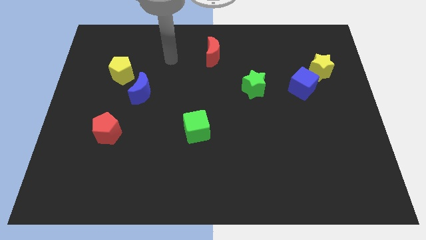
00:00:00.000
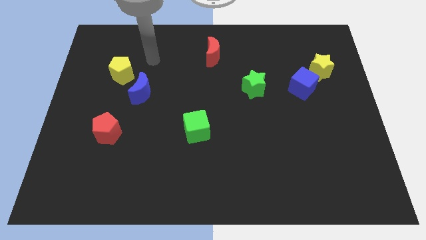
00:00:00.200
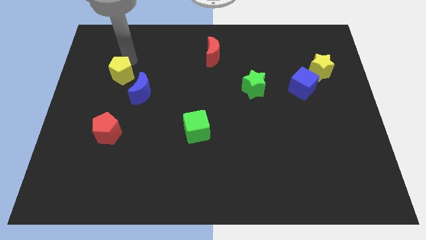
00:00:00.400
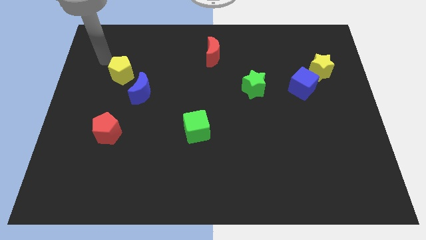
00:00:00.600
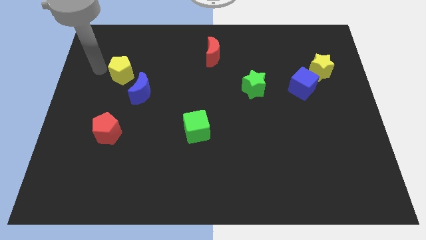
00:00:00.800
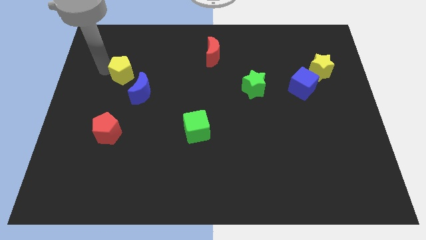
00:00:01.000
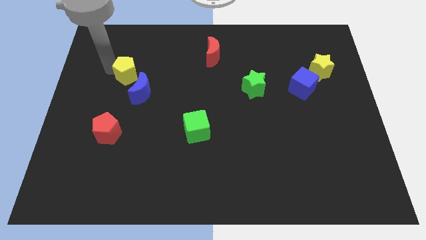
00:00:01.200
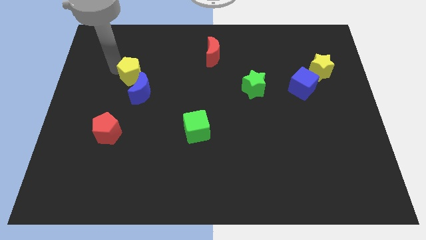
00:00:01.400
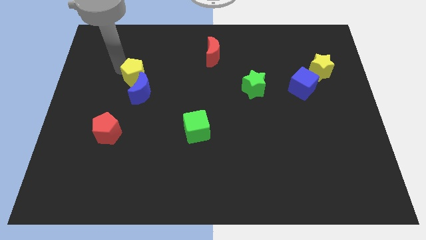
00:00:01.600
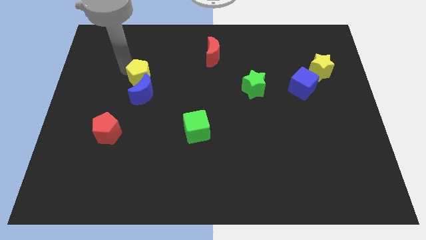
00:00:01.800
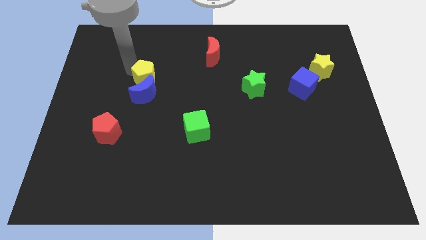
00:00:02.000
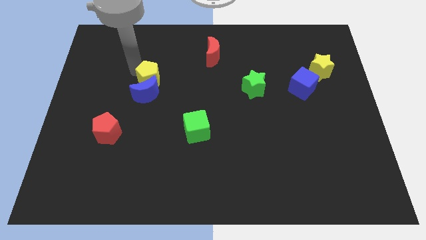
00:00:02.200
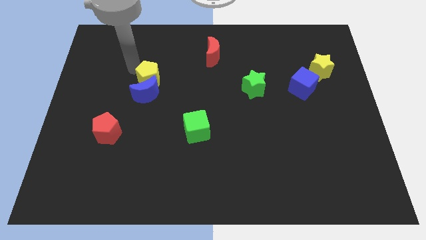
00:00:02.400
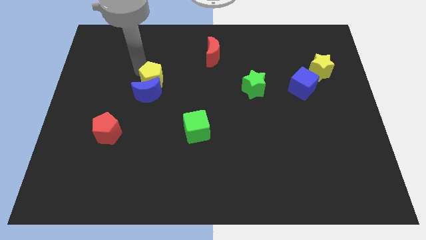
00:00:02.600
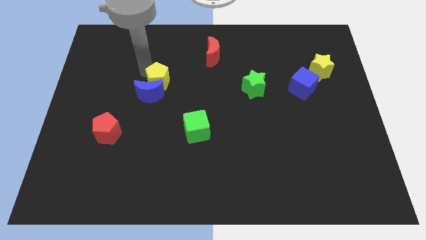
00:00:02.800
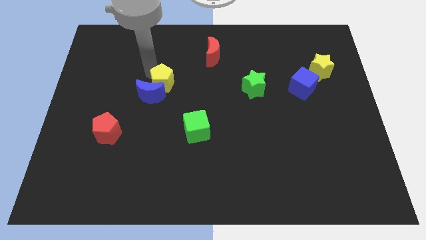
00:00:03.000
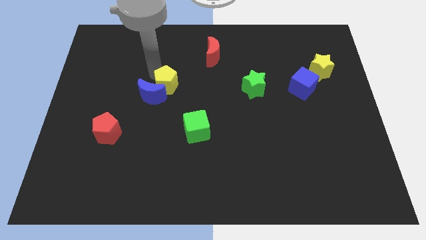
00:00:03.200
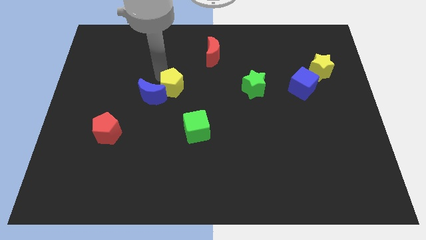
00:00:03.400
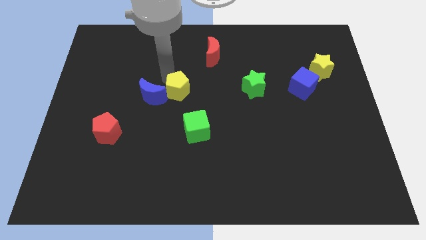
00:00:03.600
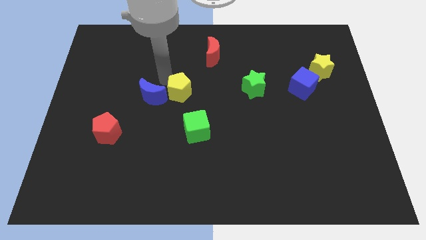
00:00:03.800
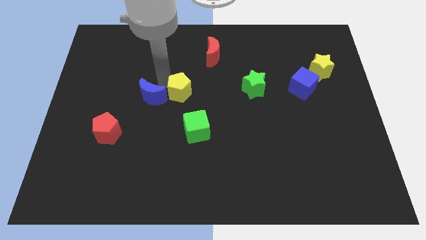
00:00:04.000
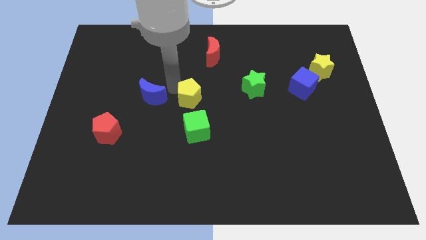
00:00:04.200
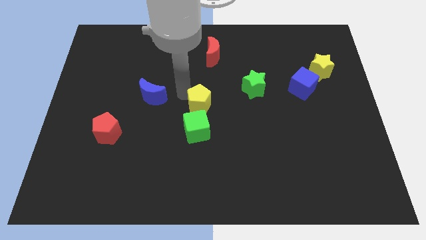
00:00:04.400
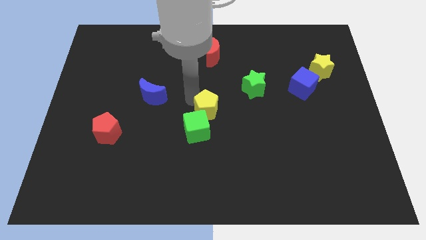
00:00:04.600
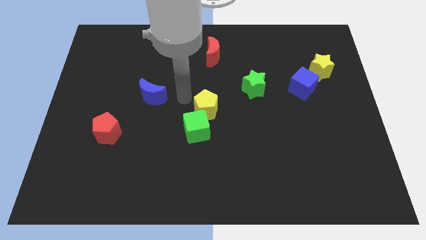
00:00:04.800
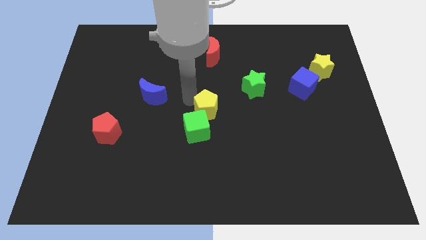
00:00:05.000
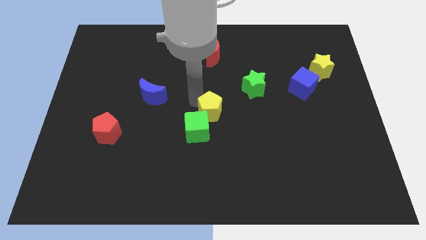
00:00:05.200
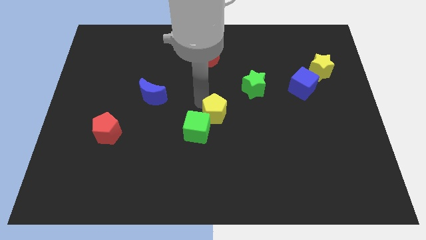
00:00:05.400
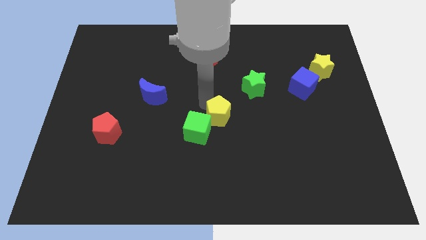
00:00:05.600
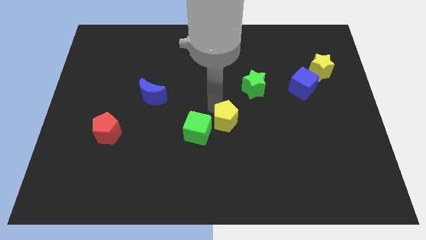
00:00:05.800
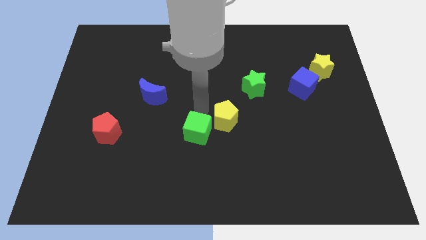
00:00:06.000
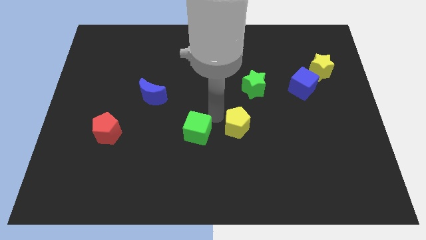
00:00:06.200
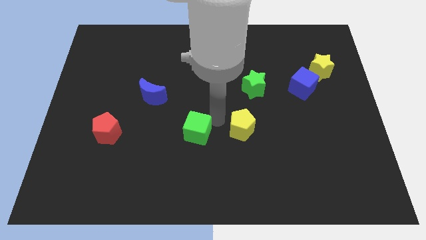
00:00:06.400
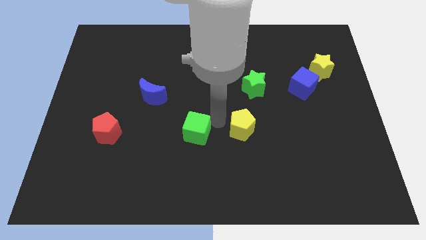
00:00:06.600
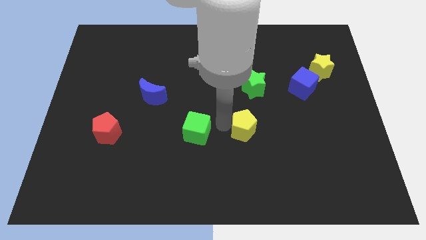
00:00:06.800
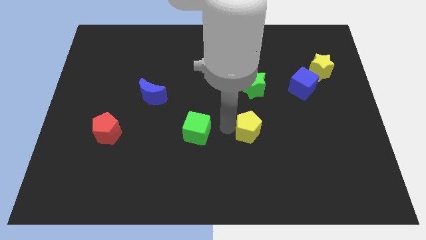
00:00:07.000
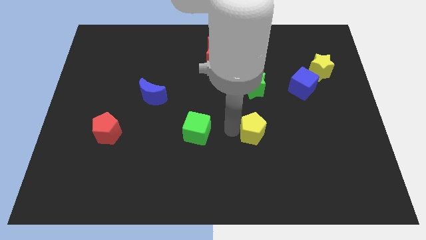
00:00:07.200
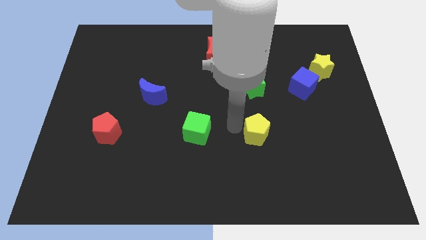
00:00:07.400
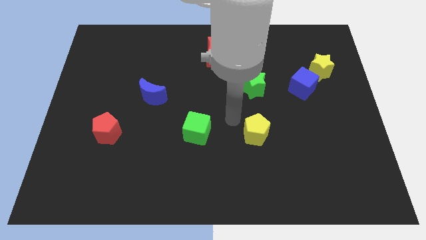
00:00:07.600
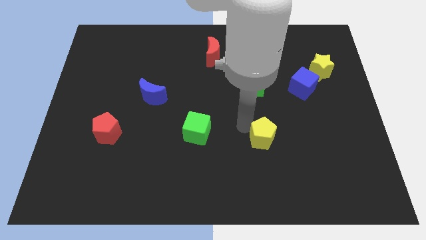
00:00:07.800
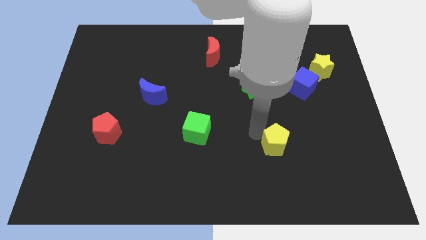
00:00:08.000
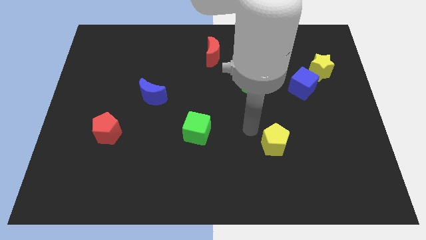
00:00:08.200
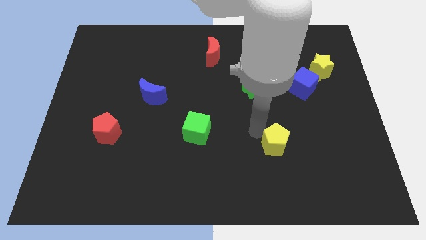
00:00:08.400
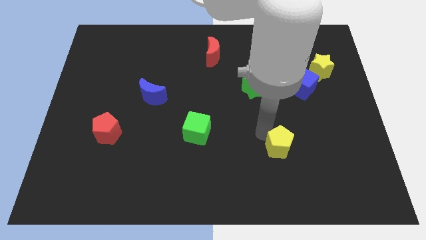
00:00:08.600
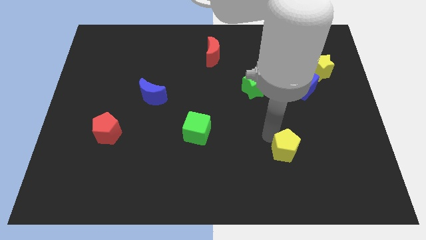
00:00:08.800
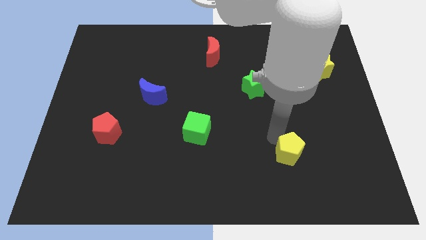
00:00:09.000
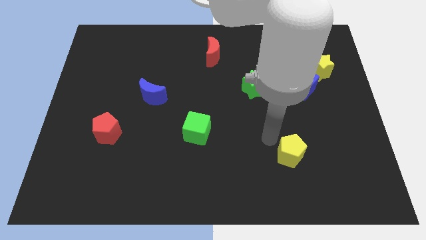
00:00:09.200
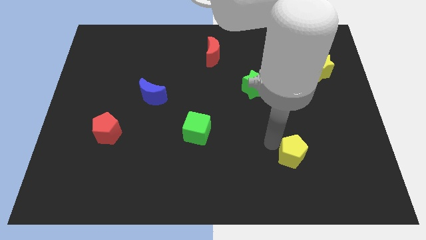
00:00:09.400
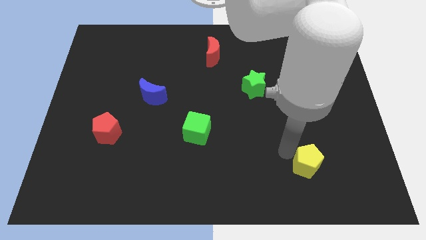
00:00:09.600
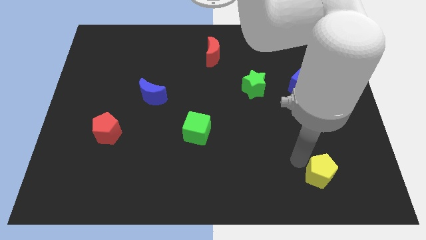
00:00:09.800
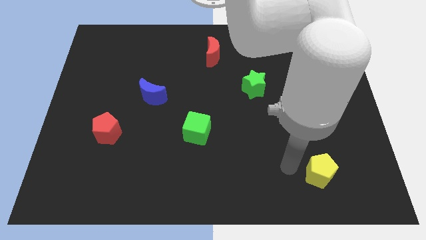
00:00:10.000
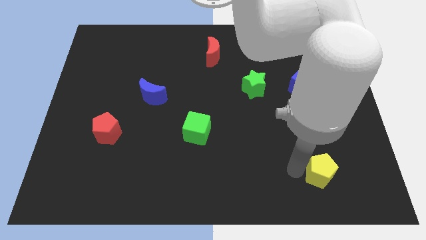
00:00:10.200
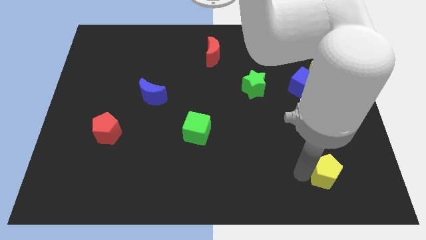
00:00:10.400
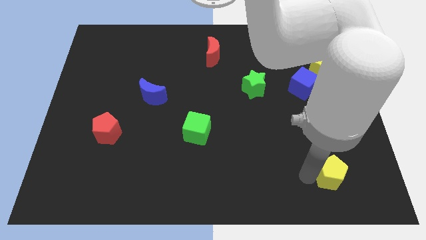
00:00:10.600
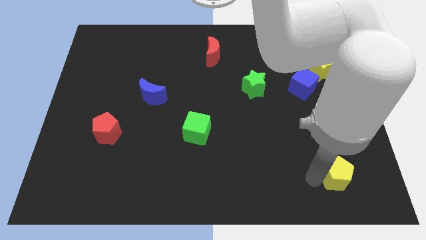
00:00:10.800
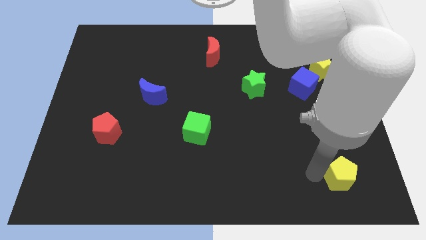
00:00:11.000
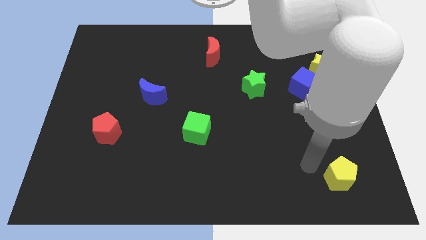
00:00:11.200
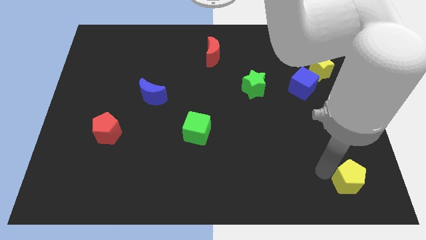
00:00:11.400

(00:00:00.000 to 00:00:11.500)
slide the yellow pentagon to the bottom right of the board
